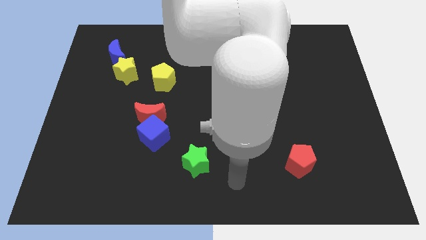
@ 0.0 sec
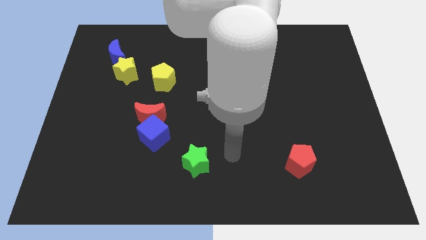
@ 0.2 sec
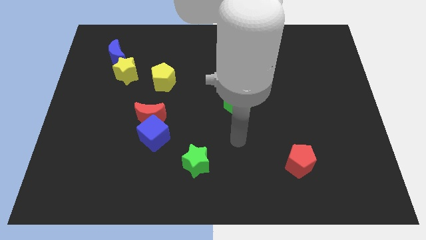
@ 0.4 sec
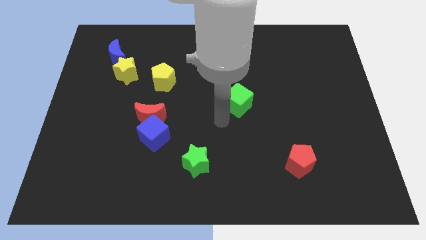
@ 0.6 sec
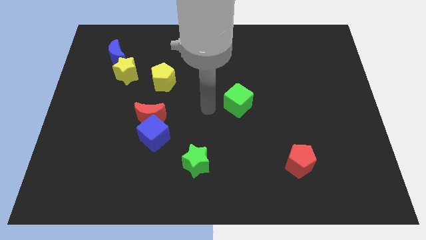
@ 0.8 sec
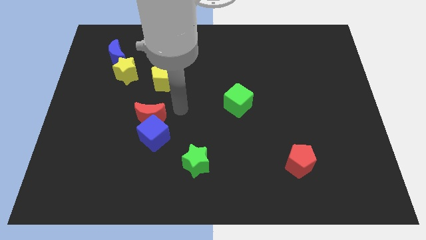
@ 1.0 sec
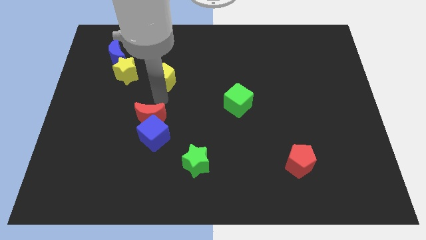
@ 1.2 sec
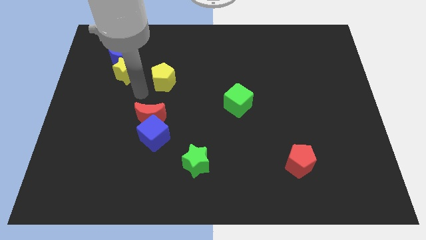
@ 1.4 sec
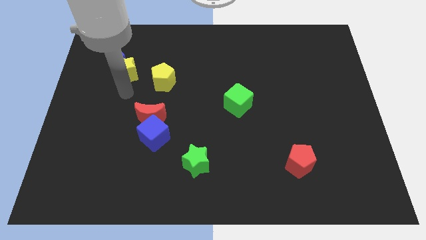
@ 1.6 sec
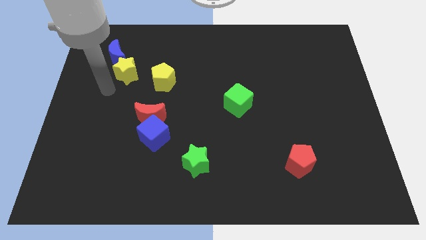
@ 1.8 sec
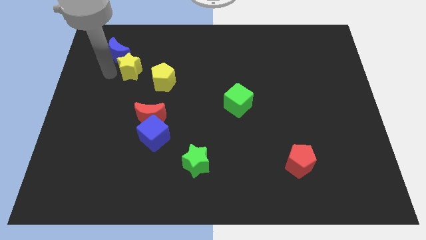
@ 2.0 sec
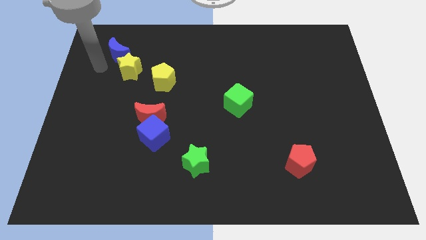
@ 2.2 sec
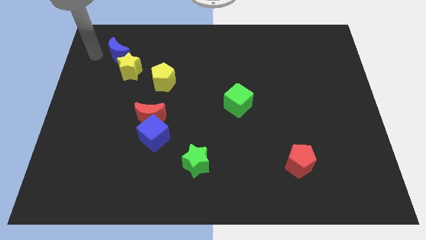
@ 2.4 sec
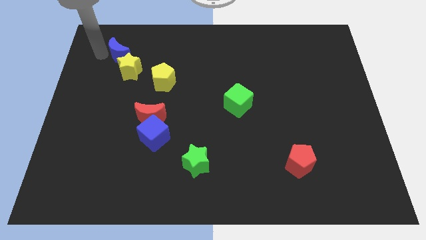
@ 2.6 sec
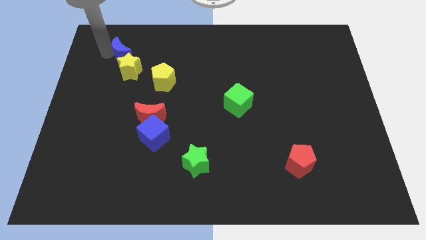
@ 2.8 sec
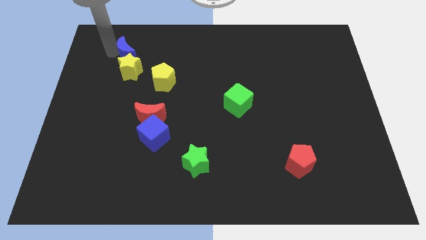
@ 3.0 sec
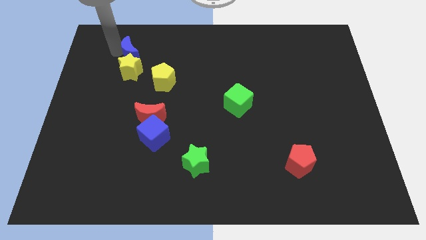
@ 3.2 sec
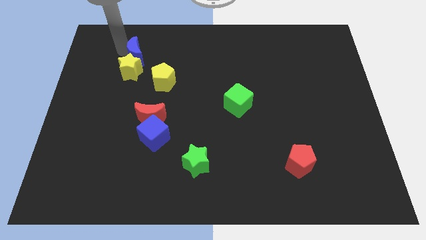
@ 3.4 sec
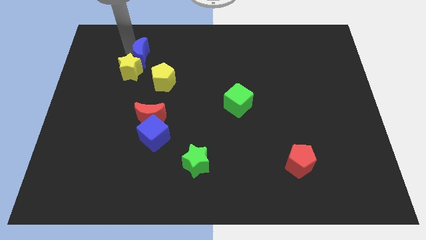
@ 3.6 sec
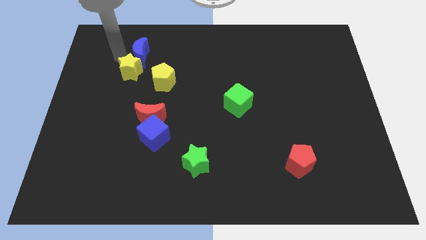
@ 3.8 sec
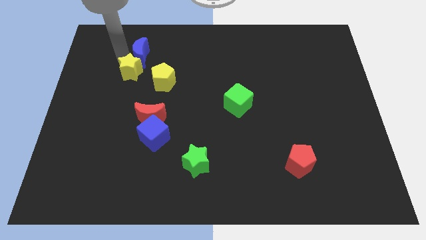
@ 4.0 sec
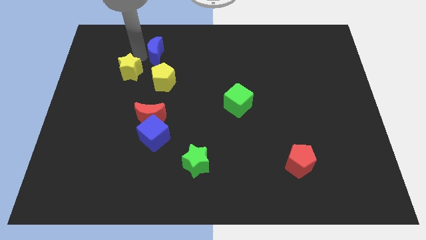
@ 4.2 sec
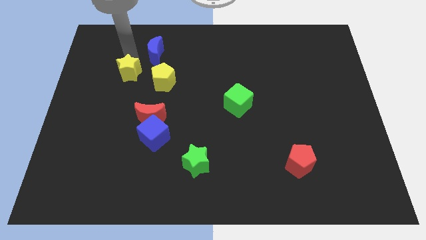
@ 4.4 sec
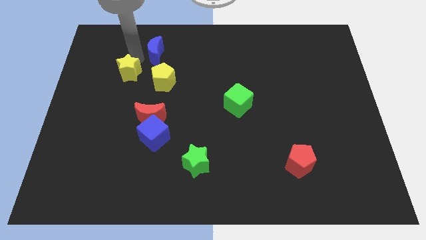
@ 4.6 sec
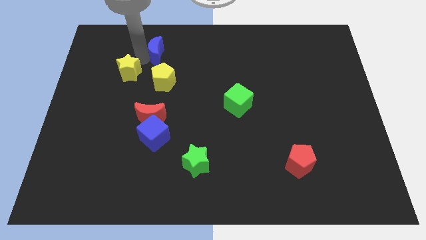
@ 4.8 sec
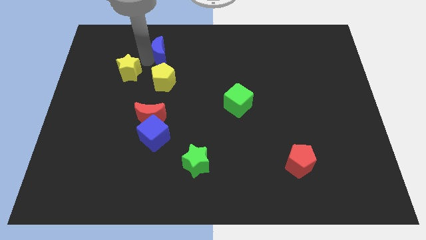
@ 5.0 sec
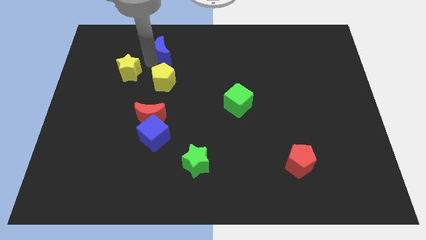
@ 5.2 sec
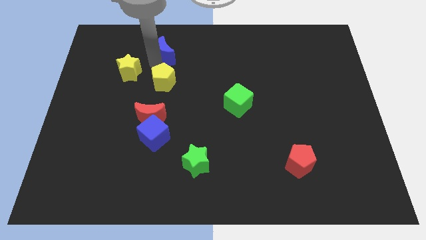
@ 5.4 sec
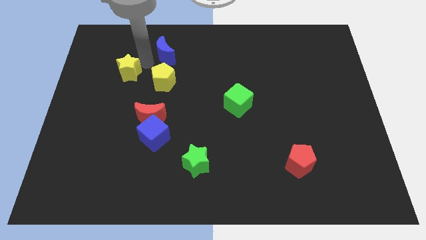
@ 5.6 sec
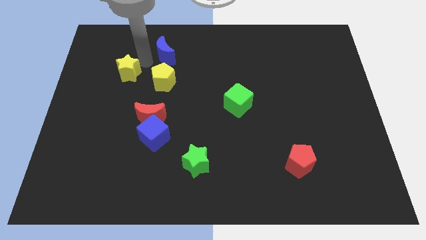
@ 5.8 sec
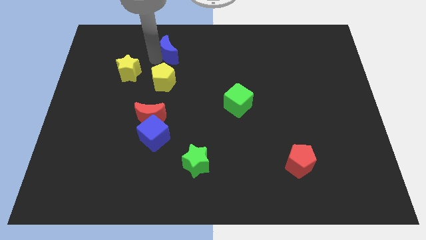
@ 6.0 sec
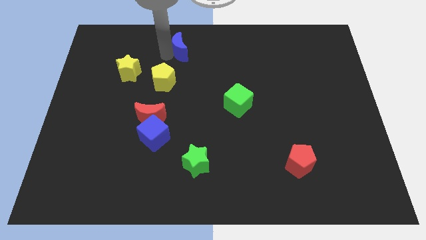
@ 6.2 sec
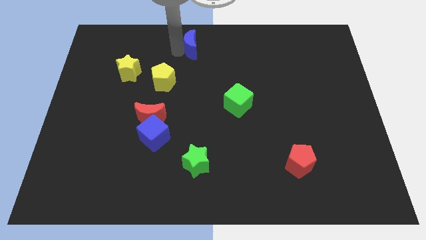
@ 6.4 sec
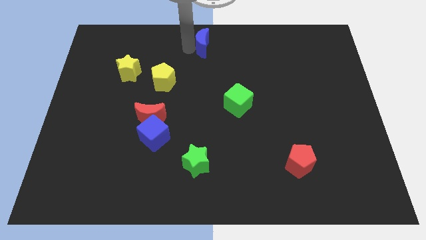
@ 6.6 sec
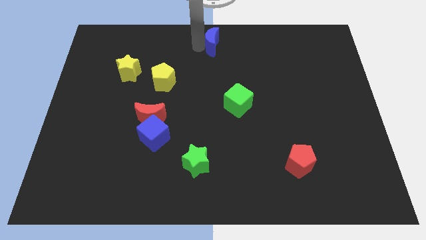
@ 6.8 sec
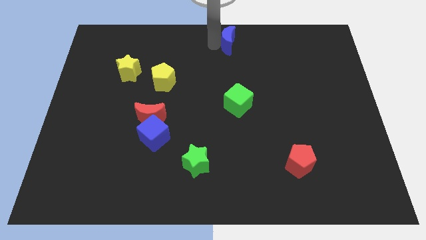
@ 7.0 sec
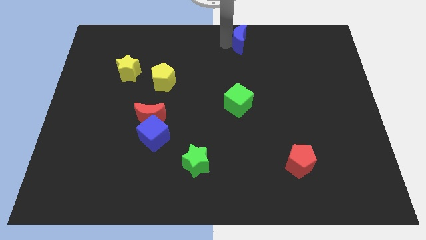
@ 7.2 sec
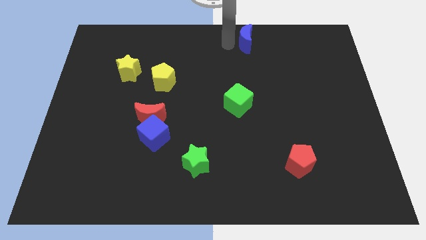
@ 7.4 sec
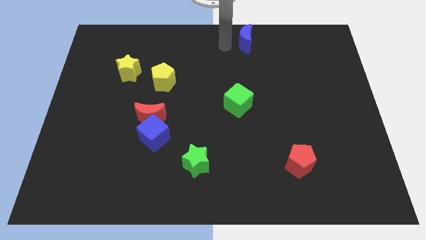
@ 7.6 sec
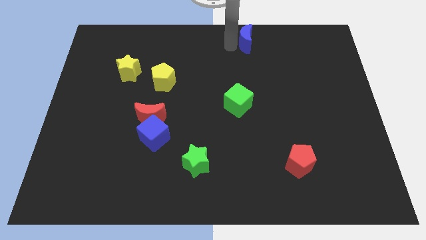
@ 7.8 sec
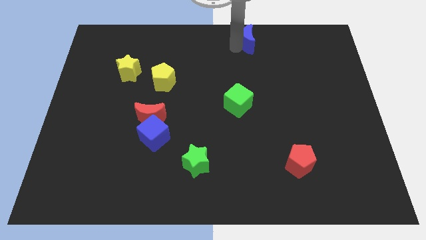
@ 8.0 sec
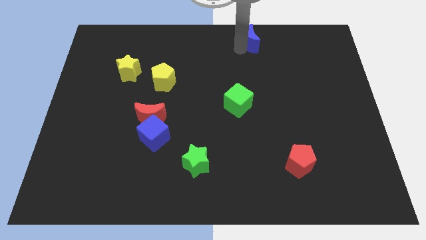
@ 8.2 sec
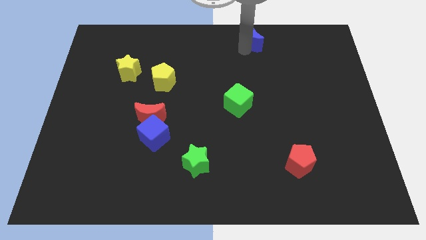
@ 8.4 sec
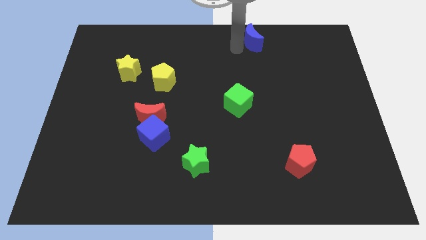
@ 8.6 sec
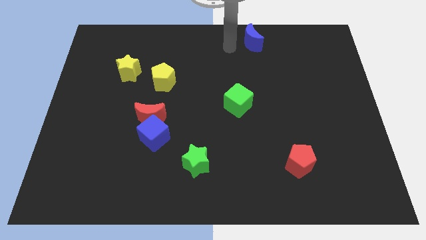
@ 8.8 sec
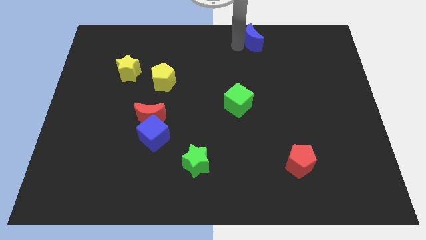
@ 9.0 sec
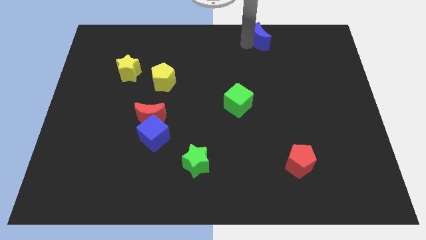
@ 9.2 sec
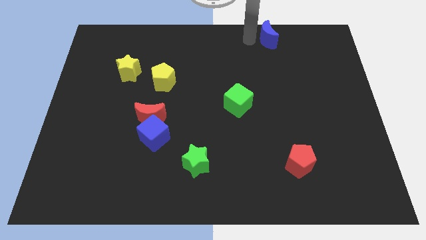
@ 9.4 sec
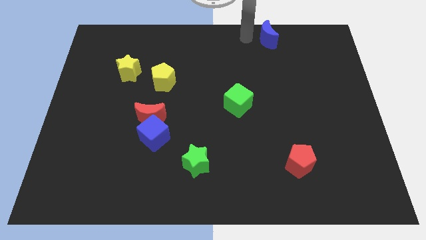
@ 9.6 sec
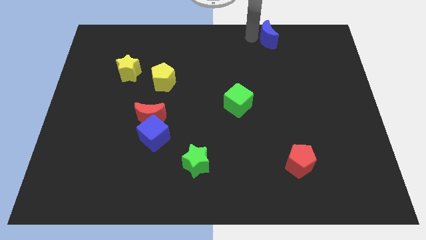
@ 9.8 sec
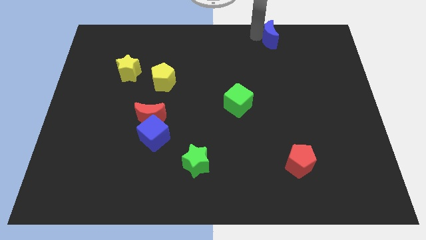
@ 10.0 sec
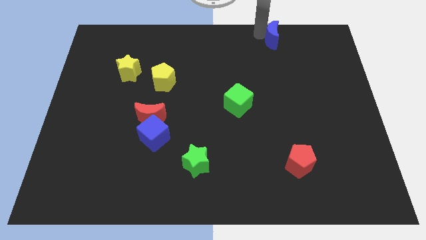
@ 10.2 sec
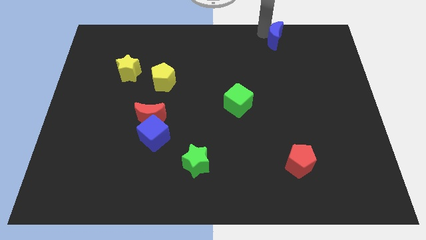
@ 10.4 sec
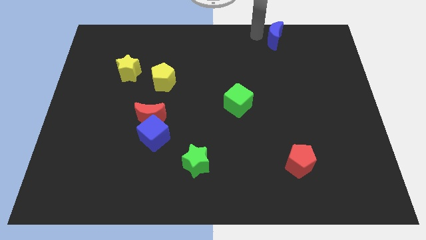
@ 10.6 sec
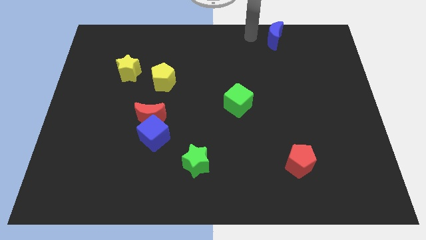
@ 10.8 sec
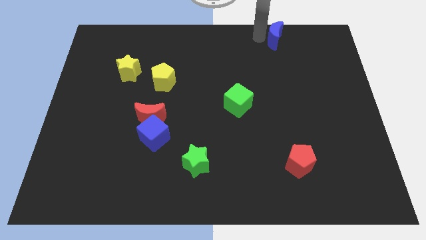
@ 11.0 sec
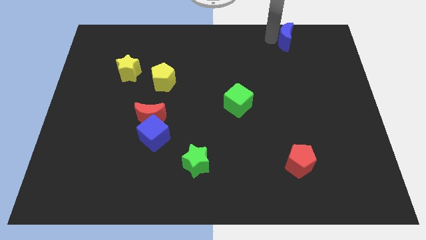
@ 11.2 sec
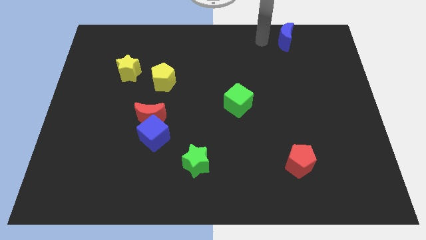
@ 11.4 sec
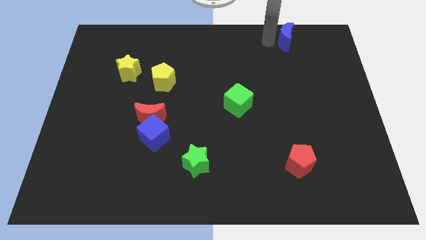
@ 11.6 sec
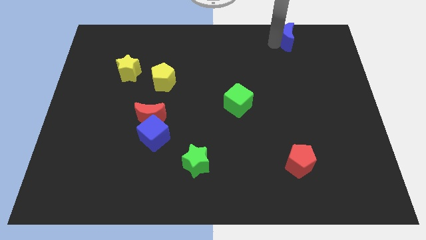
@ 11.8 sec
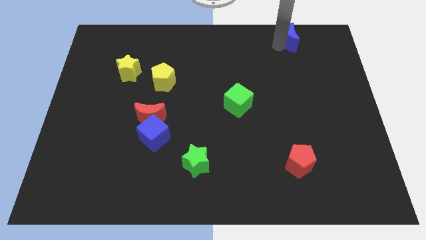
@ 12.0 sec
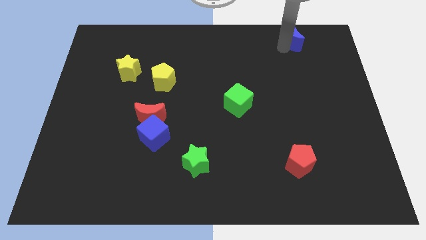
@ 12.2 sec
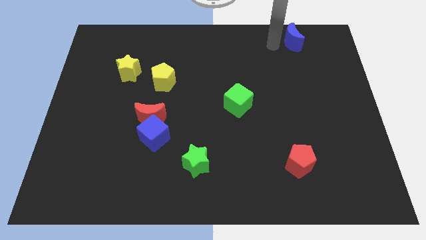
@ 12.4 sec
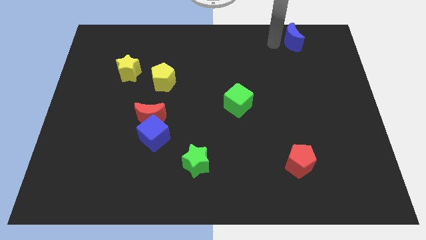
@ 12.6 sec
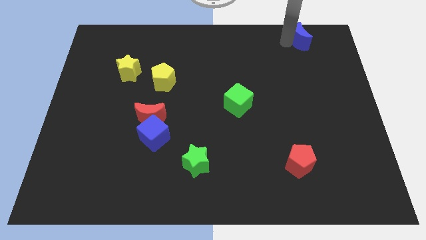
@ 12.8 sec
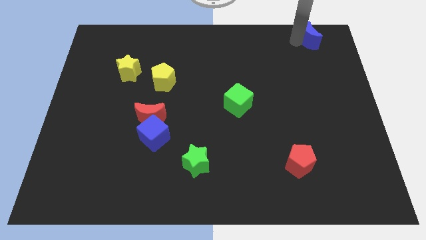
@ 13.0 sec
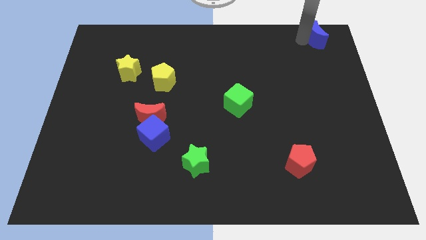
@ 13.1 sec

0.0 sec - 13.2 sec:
slide the blue moon to the upper right corner
